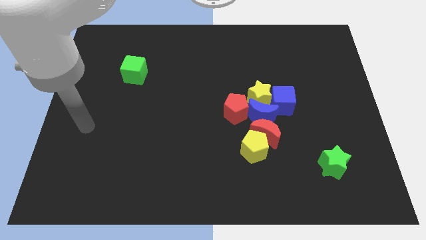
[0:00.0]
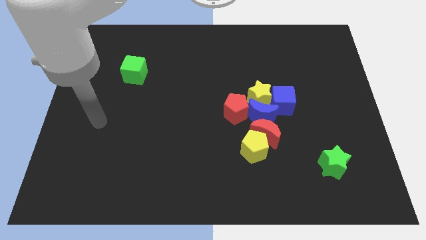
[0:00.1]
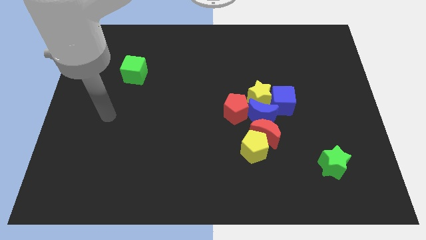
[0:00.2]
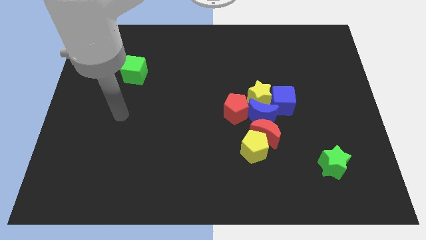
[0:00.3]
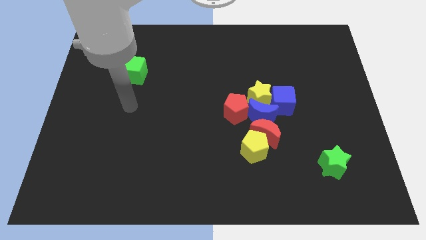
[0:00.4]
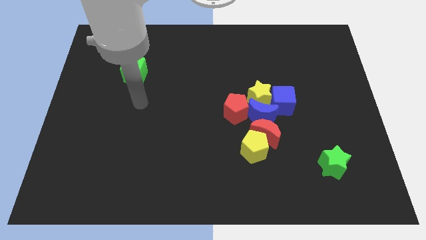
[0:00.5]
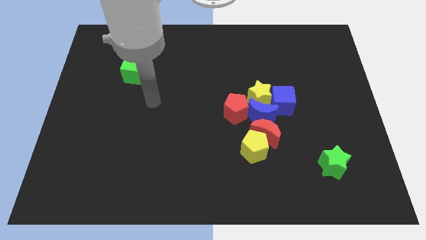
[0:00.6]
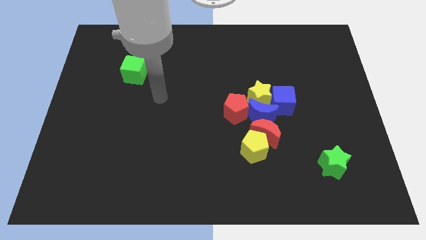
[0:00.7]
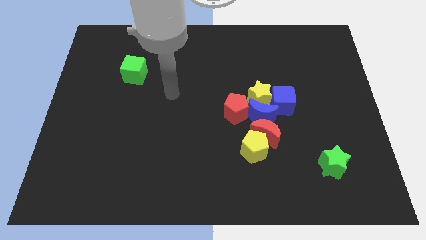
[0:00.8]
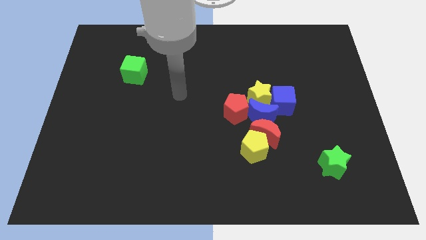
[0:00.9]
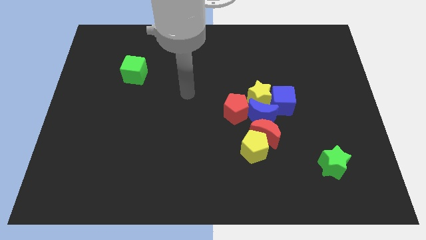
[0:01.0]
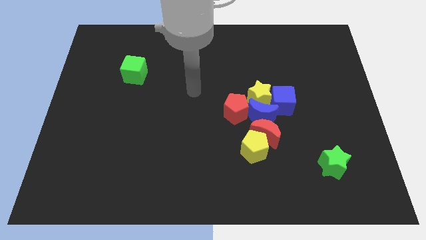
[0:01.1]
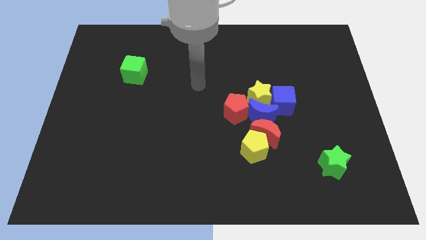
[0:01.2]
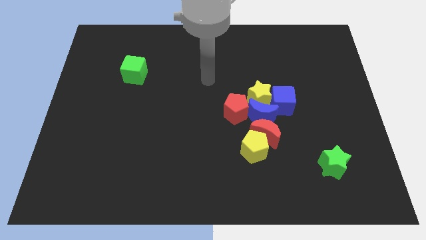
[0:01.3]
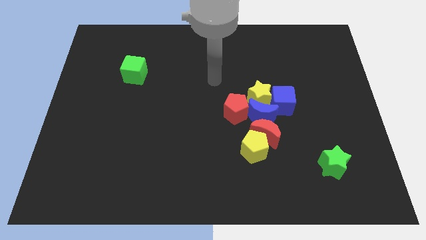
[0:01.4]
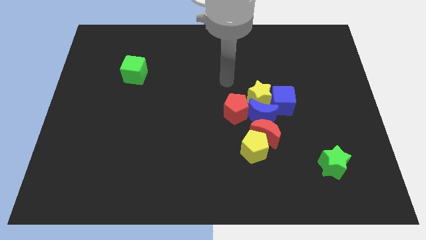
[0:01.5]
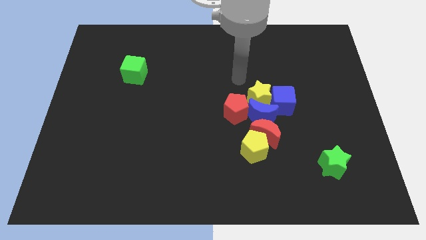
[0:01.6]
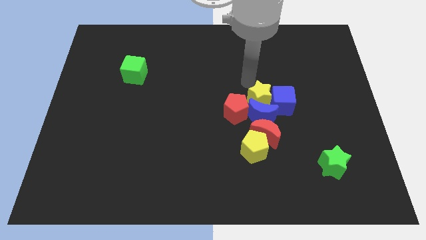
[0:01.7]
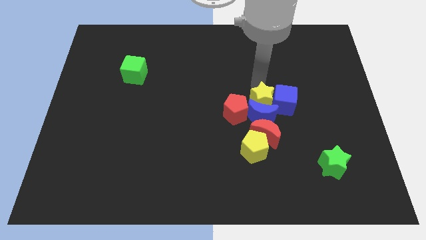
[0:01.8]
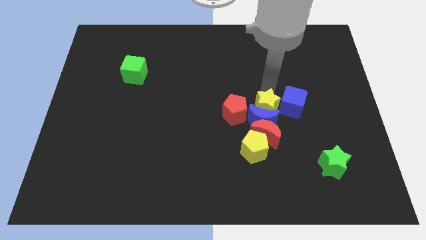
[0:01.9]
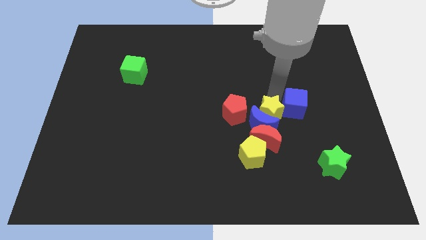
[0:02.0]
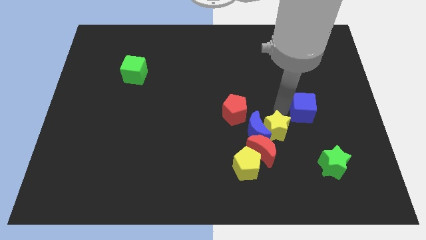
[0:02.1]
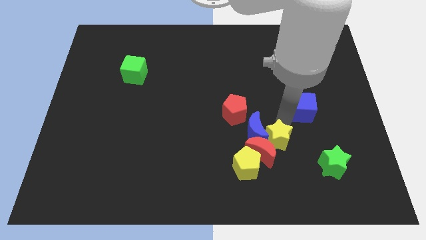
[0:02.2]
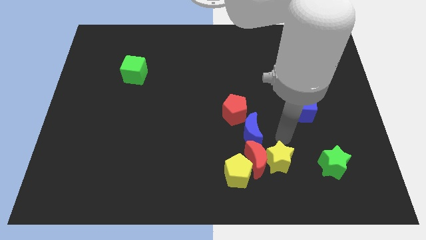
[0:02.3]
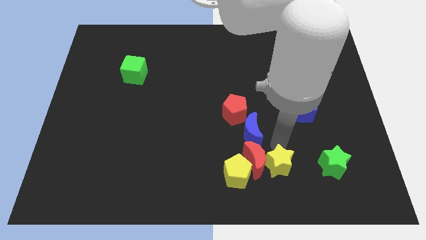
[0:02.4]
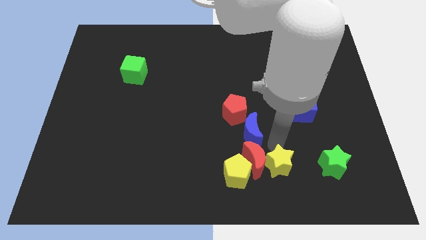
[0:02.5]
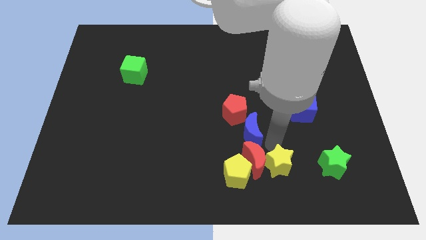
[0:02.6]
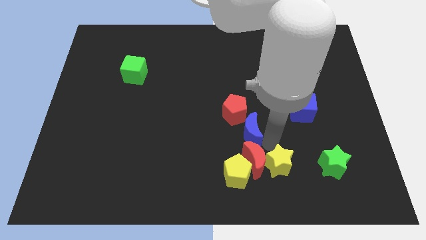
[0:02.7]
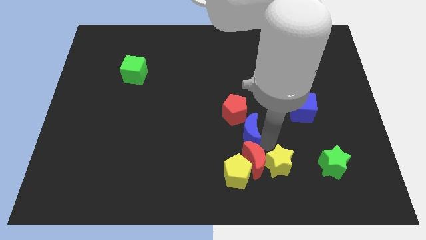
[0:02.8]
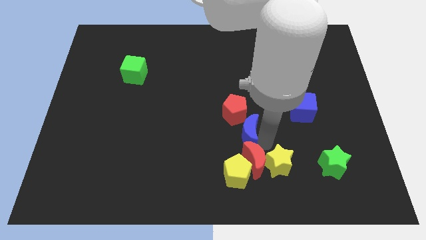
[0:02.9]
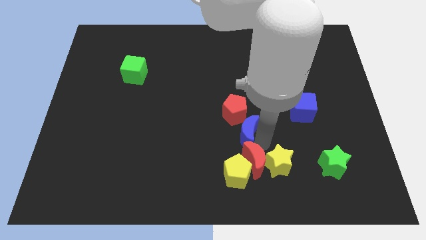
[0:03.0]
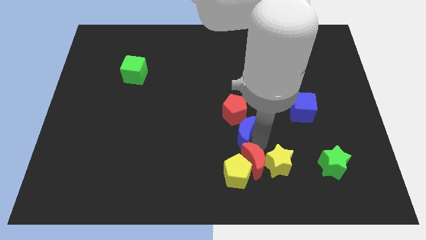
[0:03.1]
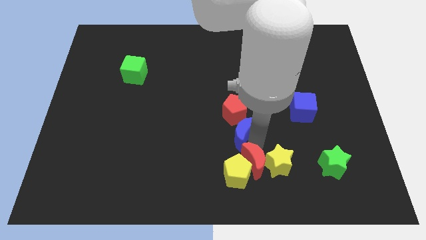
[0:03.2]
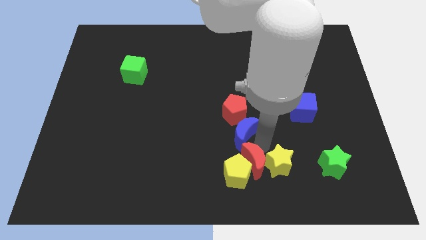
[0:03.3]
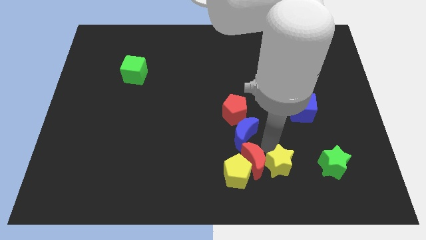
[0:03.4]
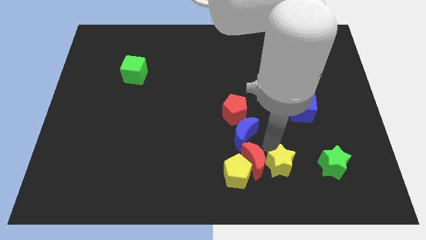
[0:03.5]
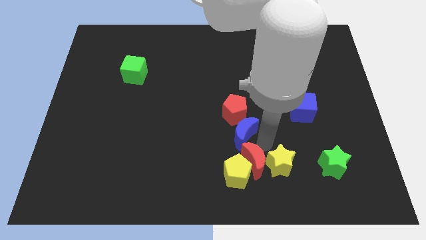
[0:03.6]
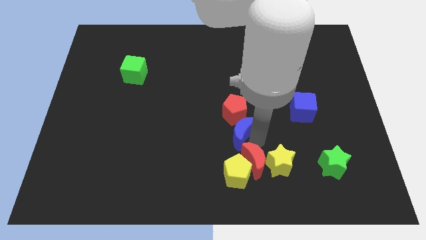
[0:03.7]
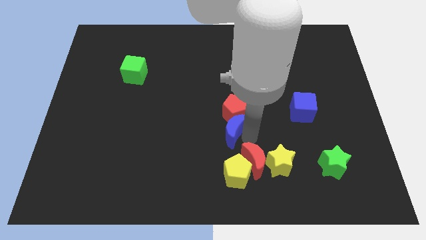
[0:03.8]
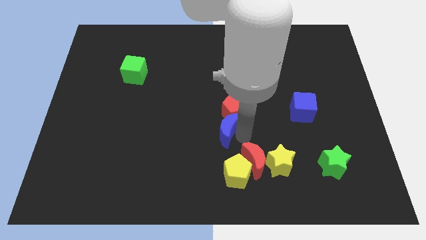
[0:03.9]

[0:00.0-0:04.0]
push the blue moon to the left slightly

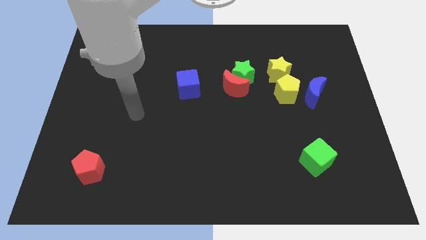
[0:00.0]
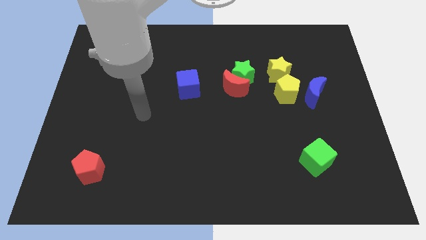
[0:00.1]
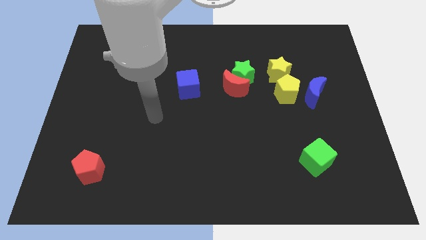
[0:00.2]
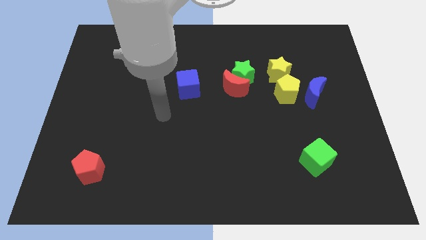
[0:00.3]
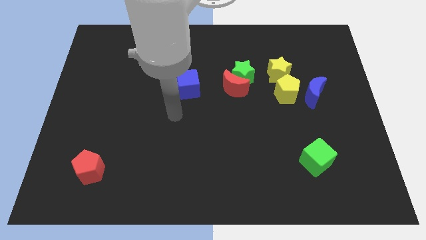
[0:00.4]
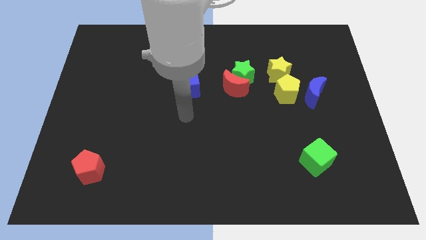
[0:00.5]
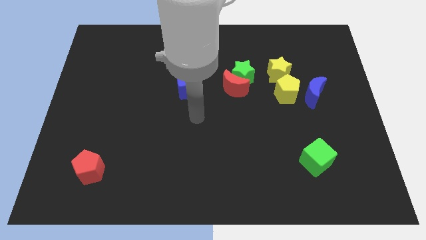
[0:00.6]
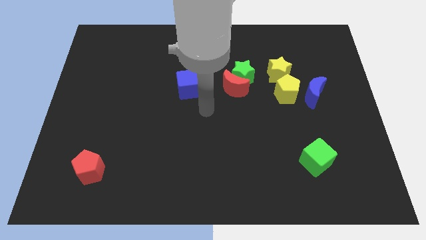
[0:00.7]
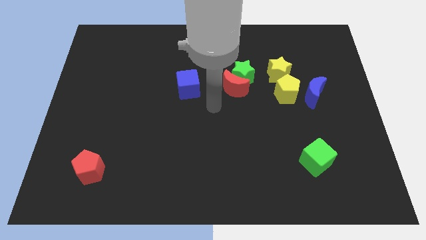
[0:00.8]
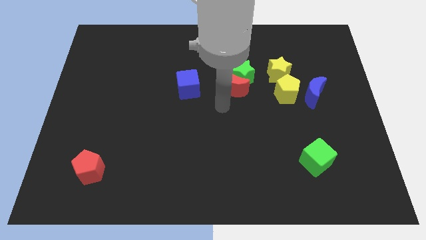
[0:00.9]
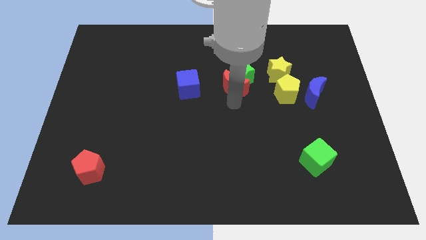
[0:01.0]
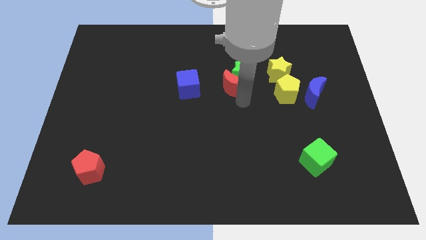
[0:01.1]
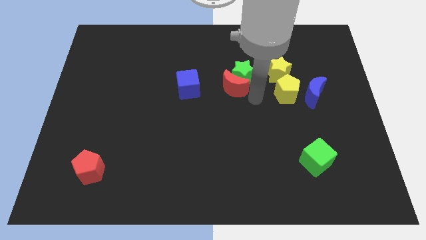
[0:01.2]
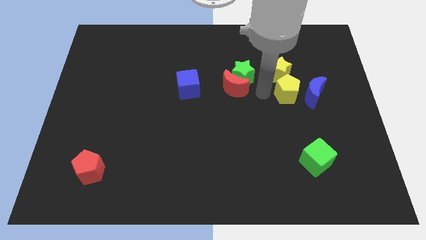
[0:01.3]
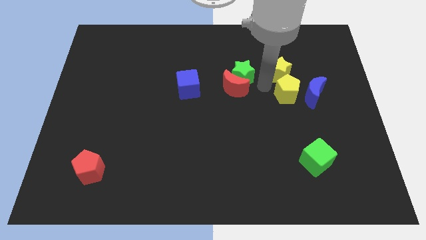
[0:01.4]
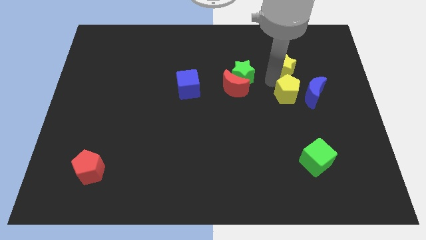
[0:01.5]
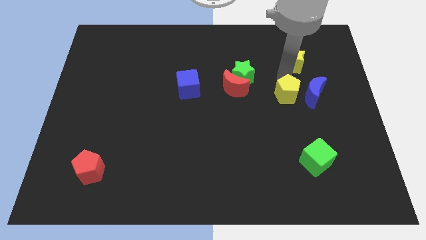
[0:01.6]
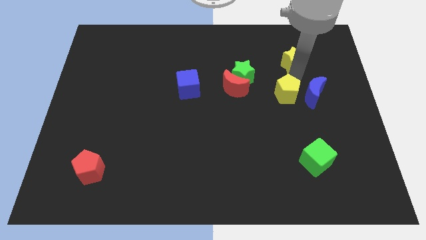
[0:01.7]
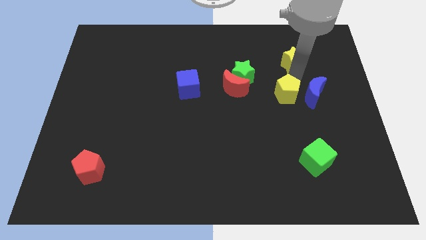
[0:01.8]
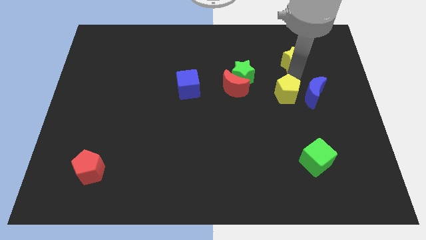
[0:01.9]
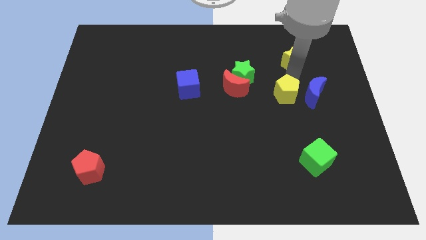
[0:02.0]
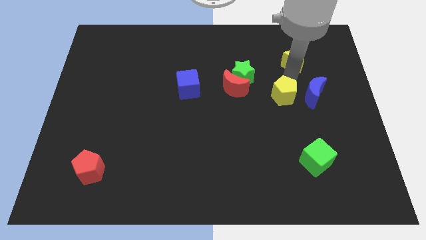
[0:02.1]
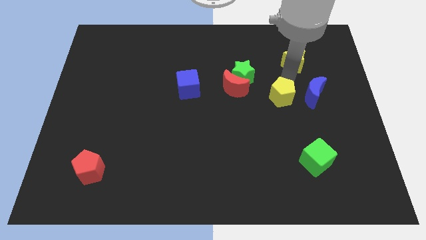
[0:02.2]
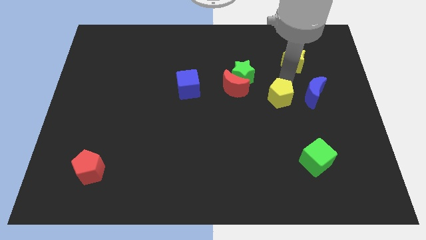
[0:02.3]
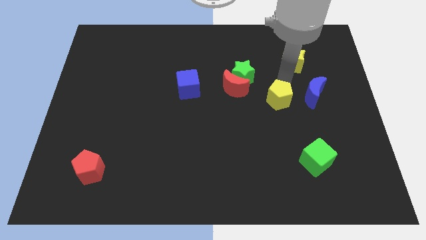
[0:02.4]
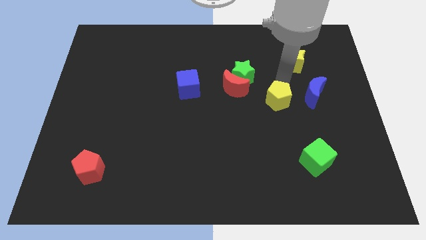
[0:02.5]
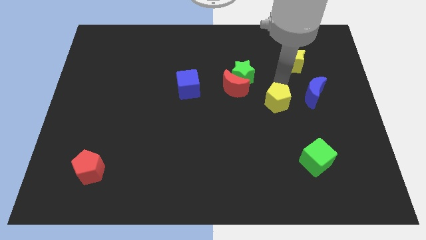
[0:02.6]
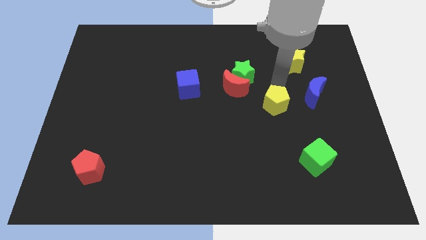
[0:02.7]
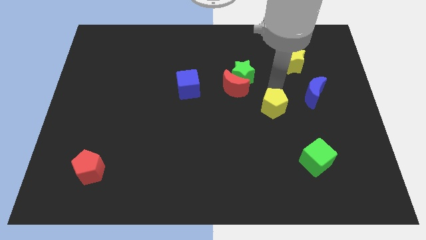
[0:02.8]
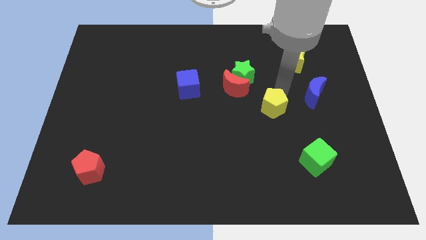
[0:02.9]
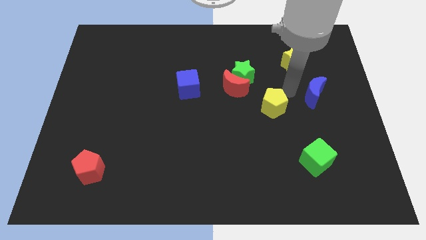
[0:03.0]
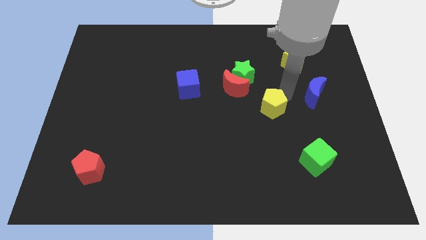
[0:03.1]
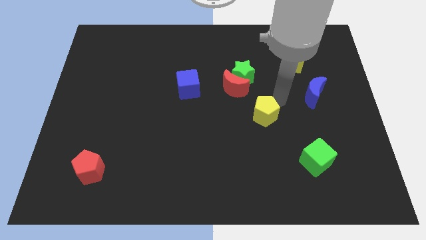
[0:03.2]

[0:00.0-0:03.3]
push the yellow pentagon downwards and then to the left somewhat

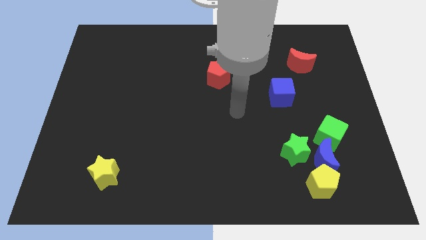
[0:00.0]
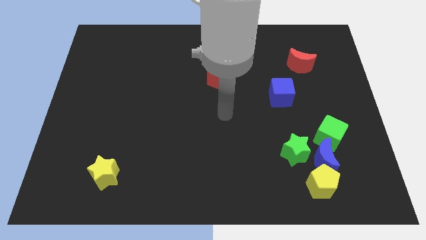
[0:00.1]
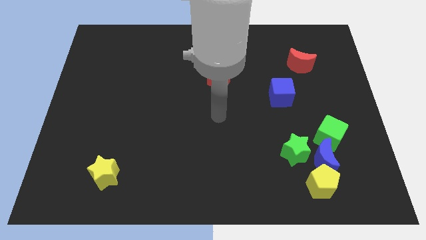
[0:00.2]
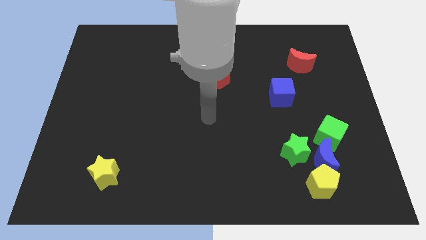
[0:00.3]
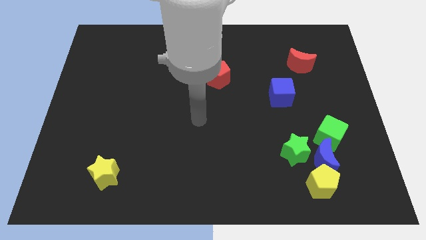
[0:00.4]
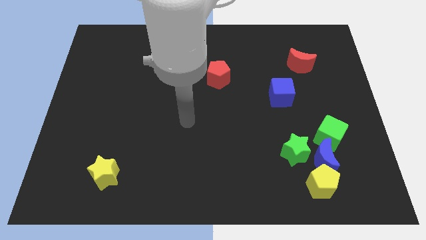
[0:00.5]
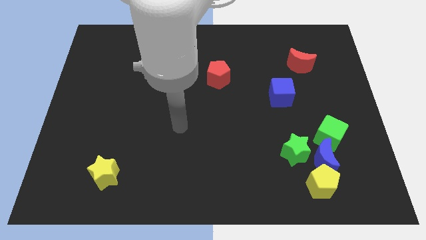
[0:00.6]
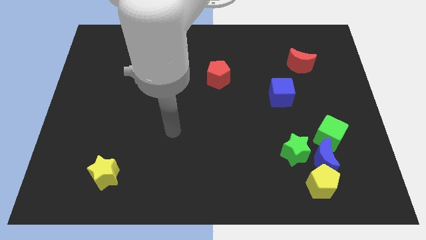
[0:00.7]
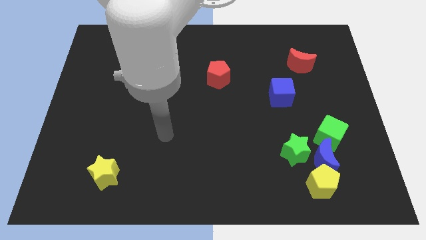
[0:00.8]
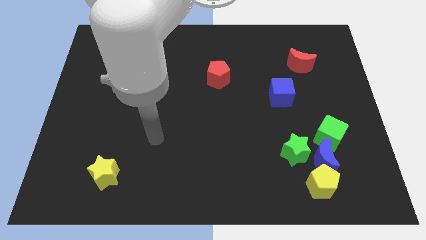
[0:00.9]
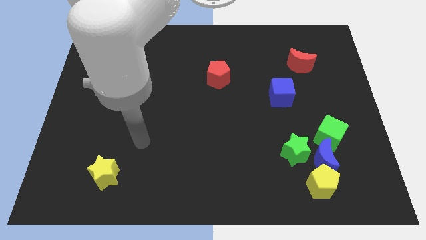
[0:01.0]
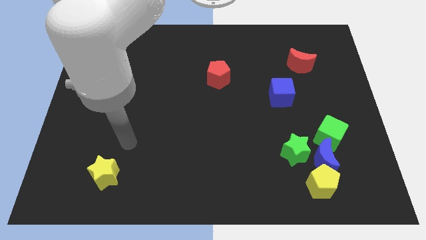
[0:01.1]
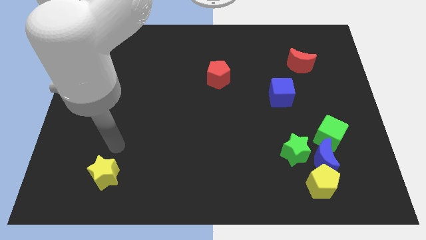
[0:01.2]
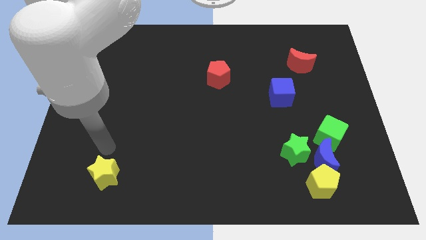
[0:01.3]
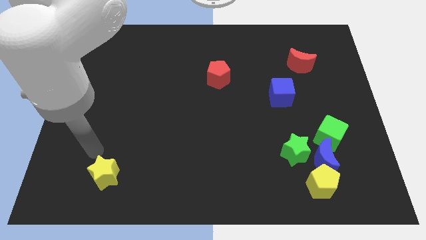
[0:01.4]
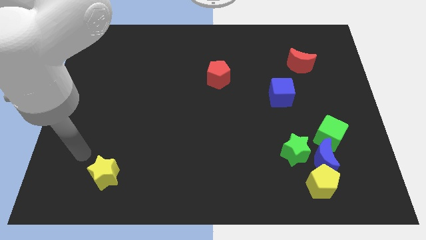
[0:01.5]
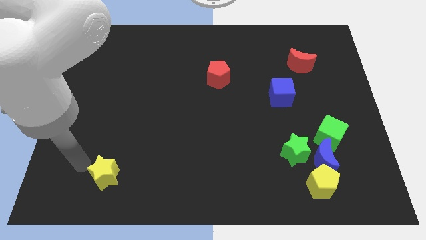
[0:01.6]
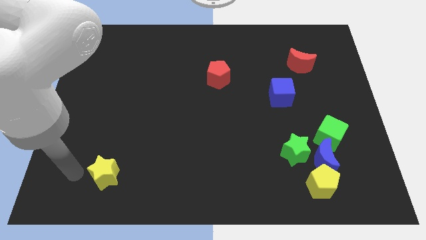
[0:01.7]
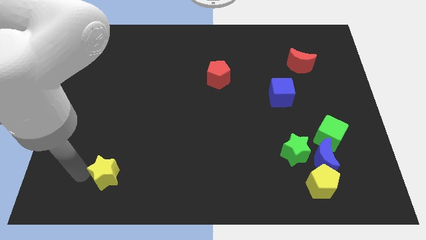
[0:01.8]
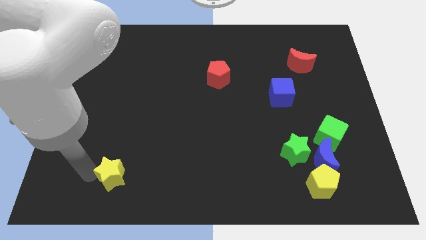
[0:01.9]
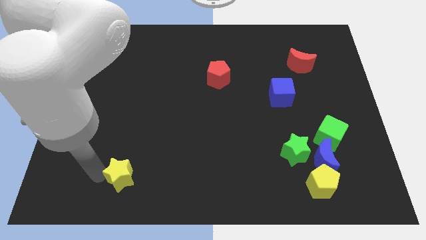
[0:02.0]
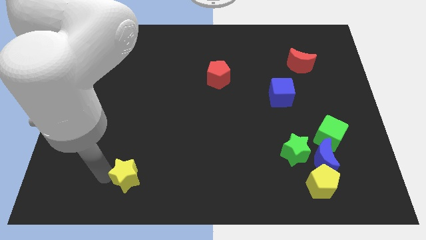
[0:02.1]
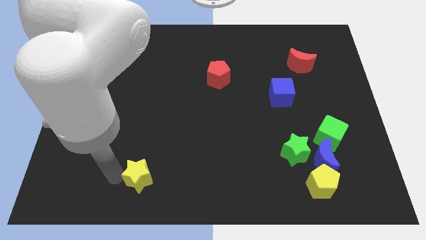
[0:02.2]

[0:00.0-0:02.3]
slide the yellow star to the right a little bit
